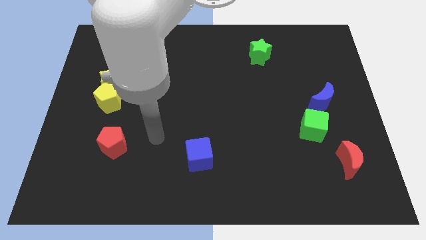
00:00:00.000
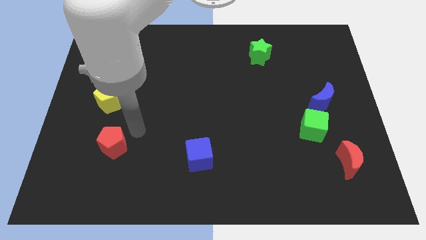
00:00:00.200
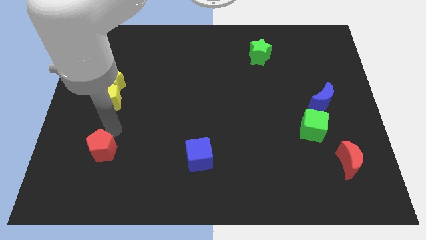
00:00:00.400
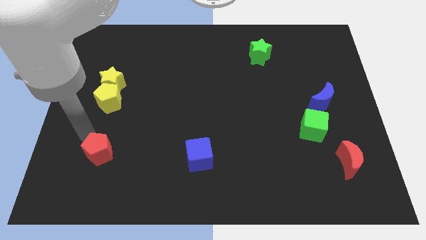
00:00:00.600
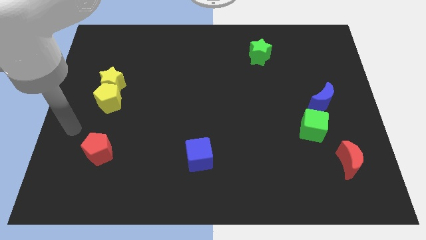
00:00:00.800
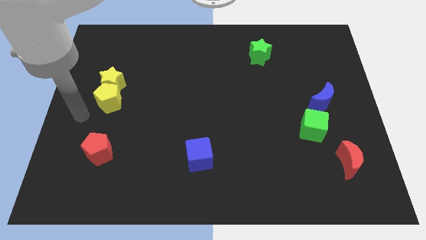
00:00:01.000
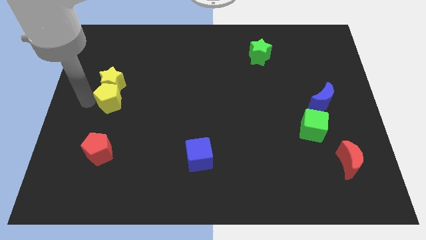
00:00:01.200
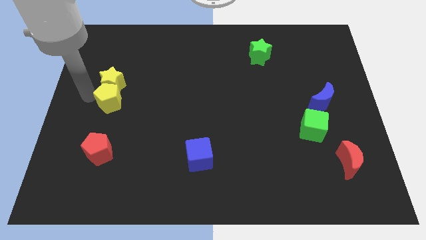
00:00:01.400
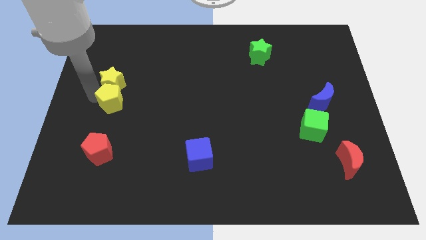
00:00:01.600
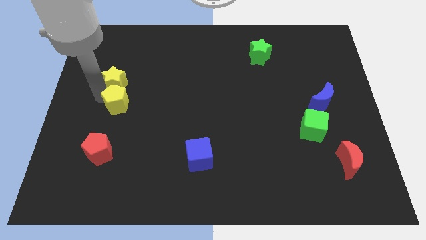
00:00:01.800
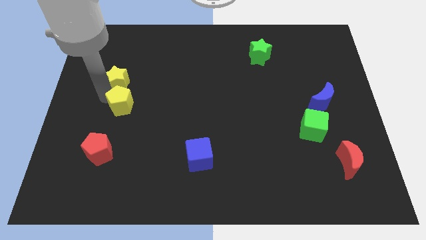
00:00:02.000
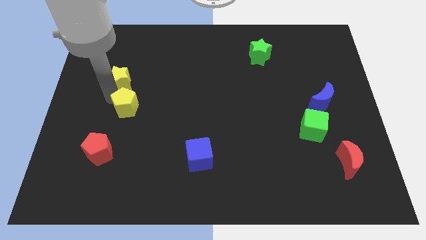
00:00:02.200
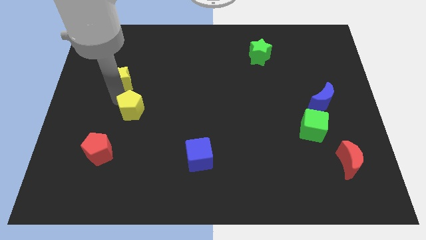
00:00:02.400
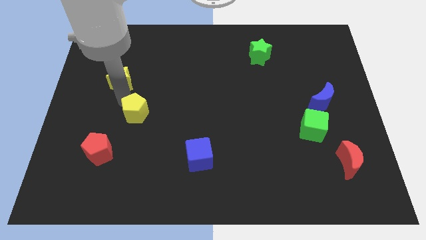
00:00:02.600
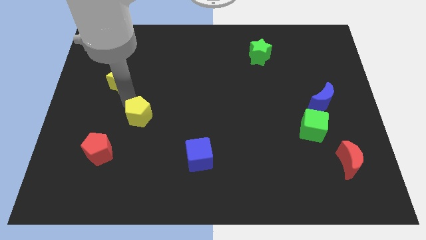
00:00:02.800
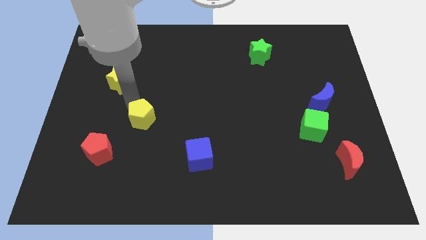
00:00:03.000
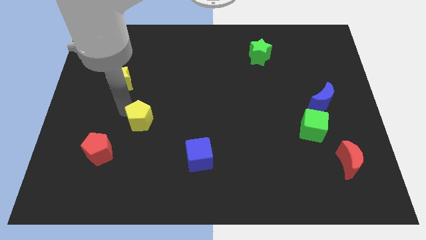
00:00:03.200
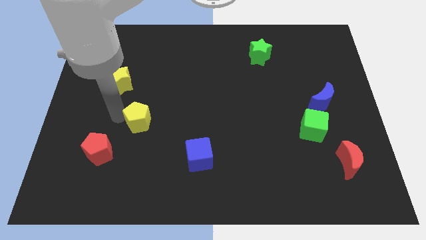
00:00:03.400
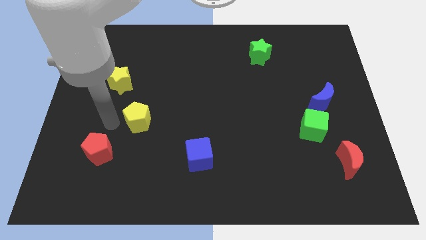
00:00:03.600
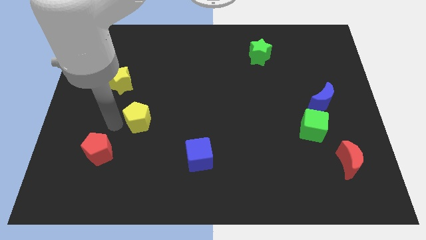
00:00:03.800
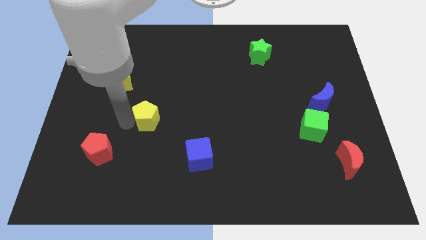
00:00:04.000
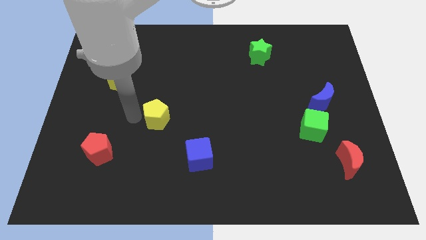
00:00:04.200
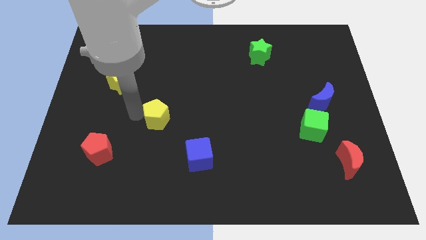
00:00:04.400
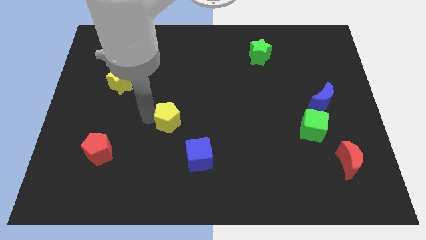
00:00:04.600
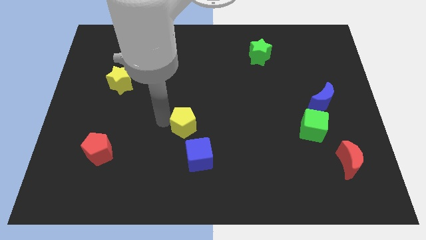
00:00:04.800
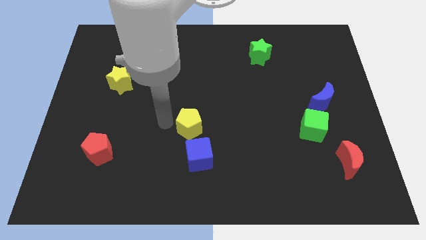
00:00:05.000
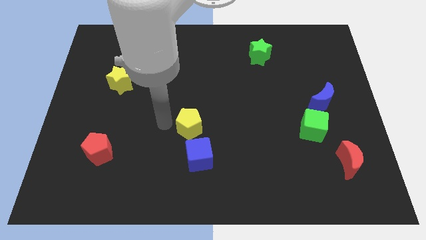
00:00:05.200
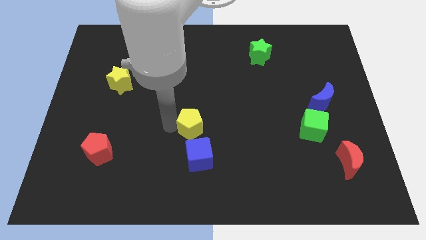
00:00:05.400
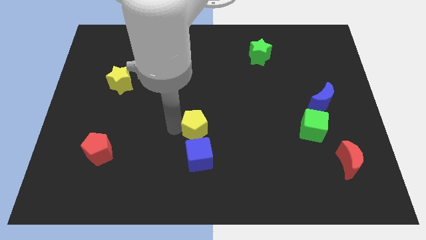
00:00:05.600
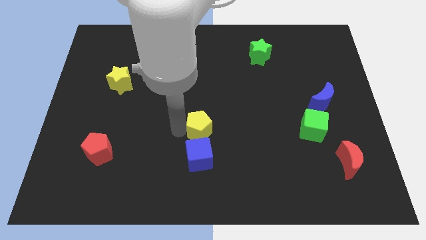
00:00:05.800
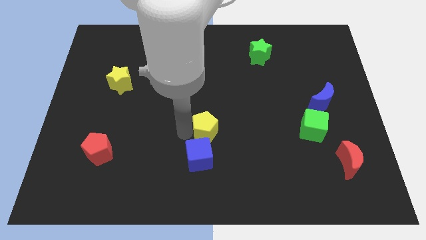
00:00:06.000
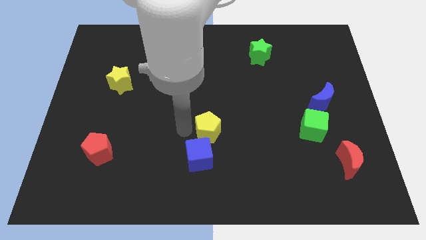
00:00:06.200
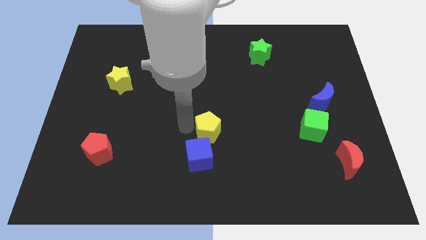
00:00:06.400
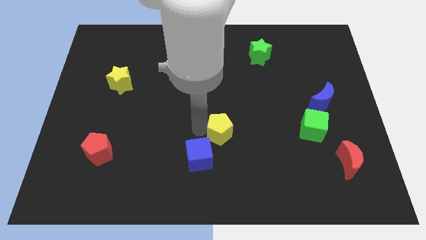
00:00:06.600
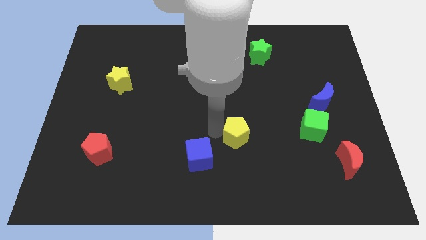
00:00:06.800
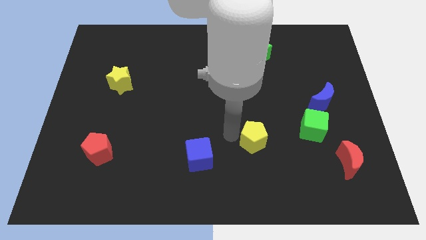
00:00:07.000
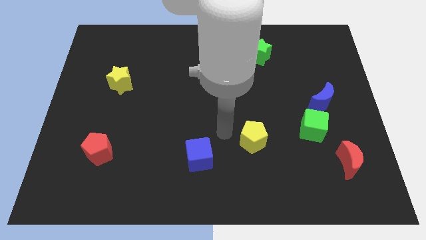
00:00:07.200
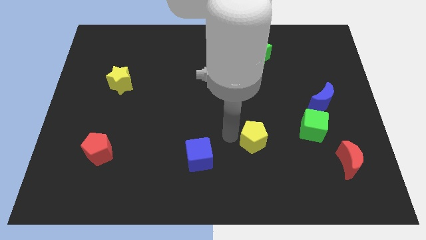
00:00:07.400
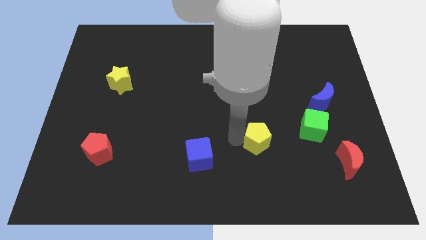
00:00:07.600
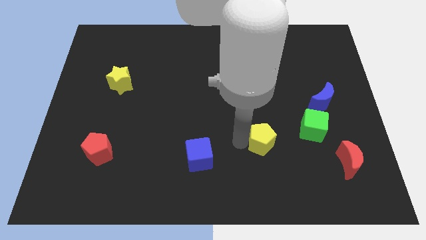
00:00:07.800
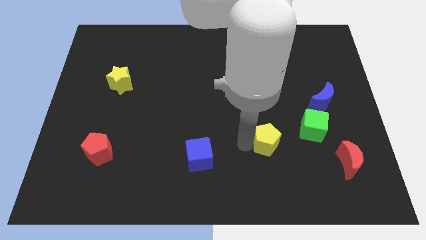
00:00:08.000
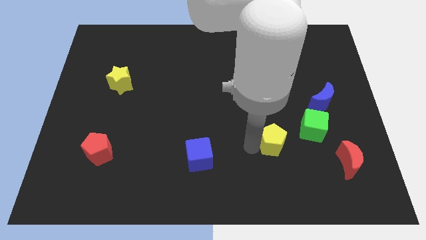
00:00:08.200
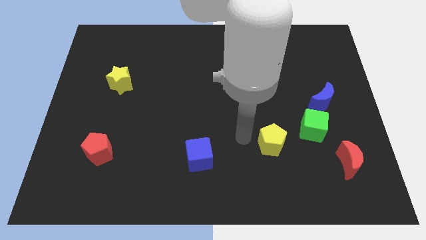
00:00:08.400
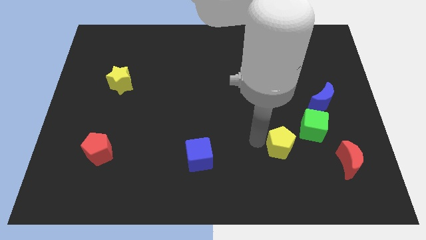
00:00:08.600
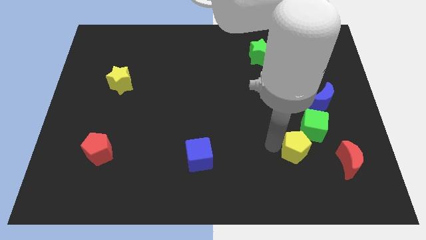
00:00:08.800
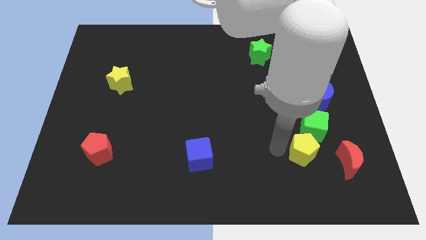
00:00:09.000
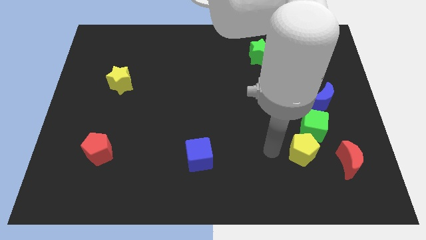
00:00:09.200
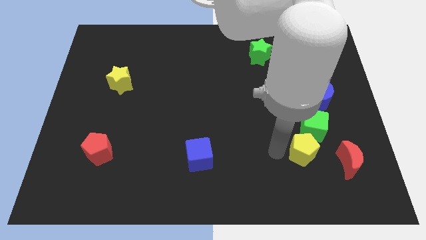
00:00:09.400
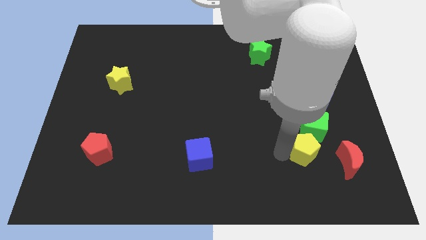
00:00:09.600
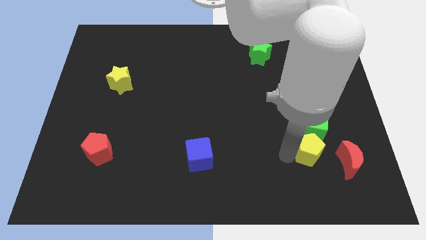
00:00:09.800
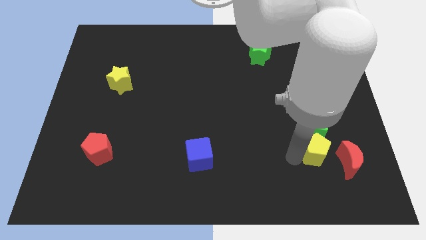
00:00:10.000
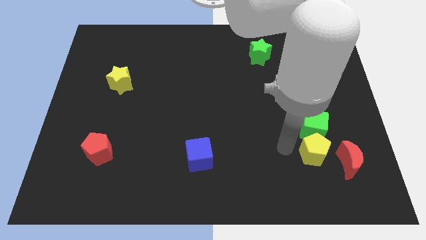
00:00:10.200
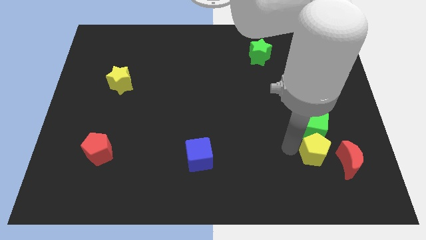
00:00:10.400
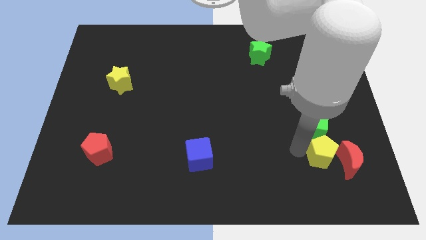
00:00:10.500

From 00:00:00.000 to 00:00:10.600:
put the yellow pentagon next to the red moon

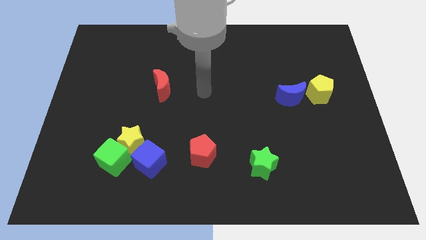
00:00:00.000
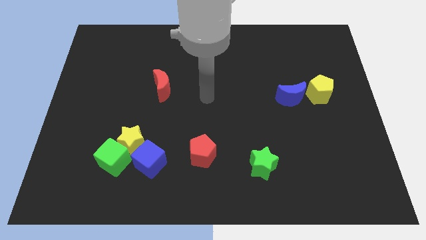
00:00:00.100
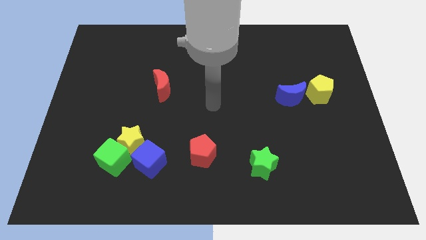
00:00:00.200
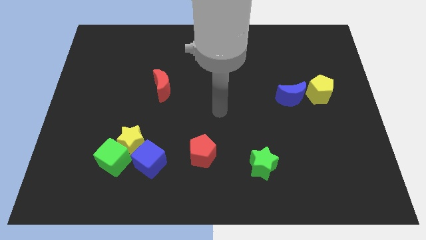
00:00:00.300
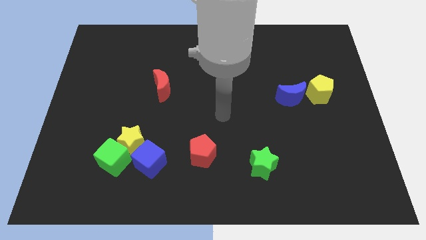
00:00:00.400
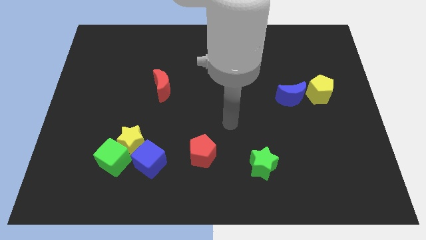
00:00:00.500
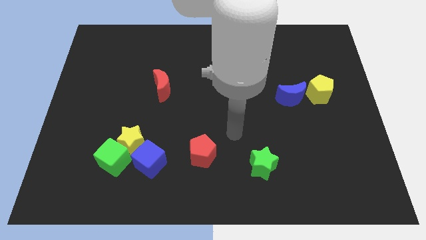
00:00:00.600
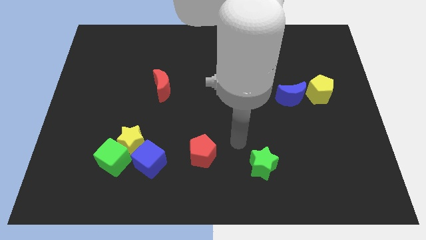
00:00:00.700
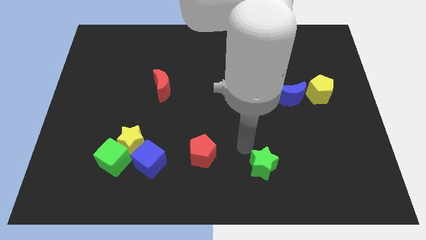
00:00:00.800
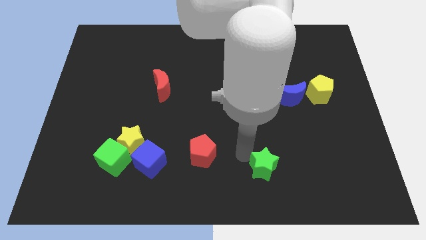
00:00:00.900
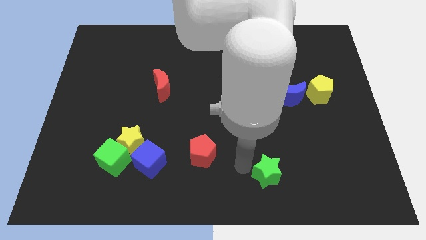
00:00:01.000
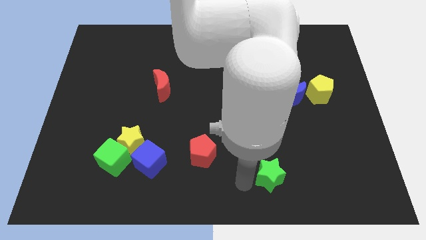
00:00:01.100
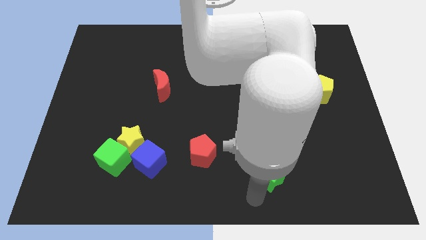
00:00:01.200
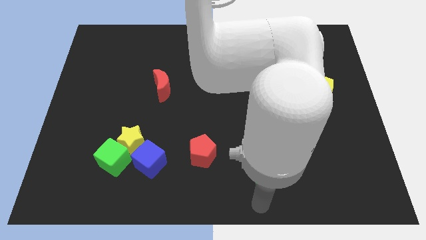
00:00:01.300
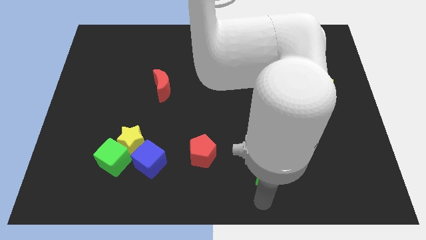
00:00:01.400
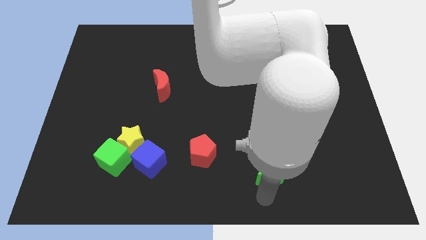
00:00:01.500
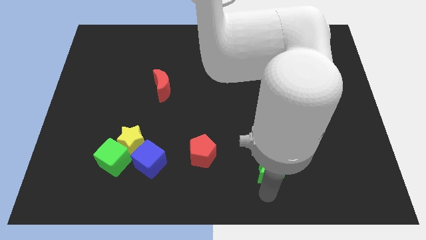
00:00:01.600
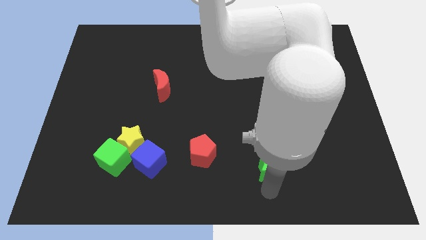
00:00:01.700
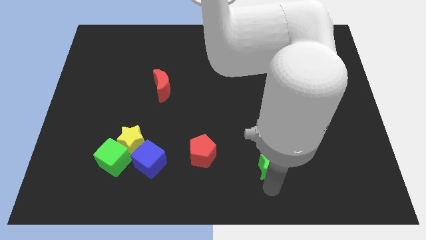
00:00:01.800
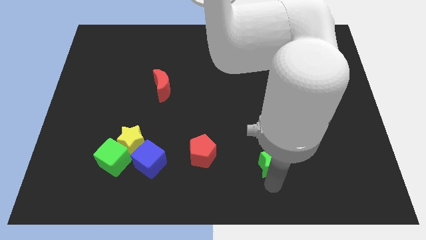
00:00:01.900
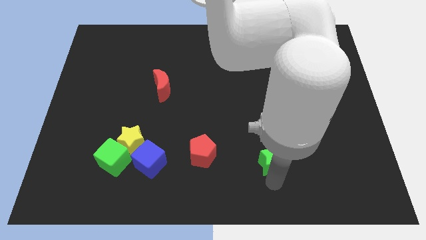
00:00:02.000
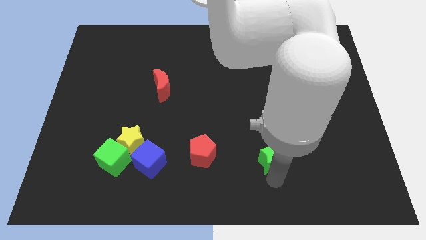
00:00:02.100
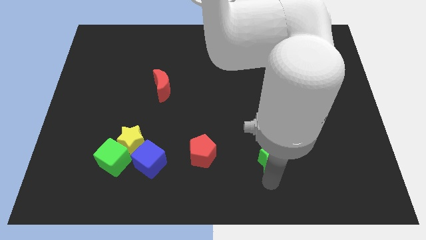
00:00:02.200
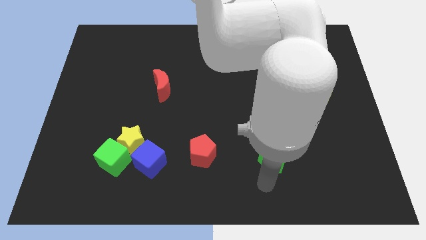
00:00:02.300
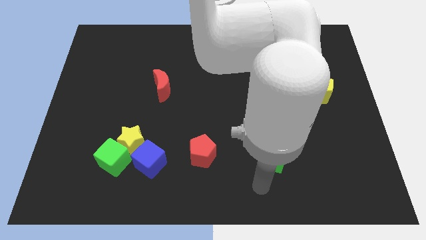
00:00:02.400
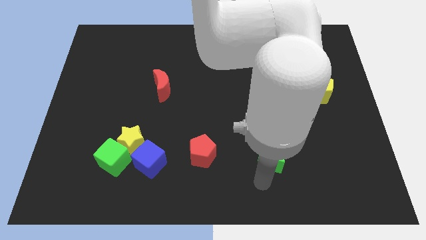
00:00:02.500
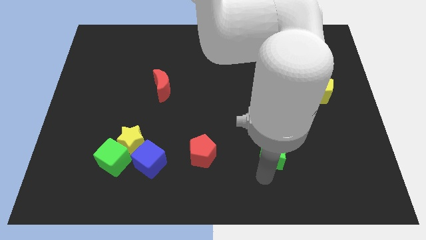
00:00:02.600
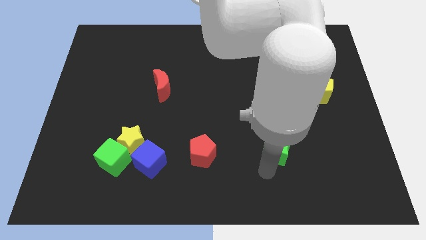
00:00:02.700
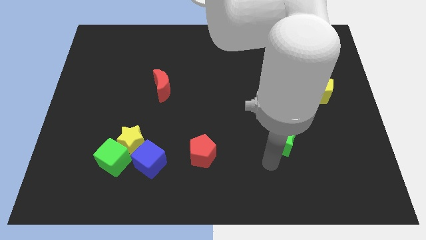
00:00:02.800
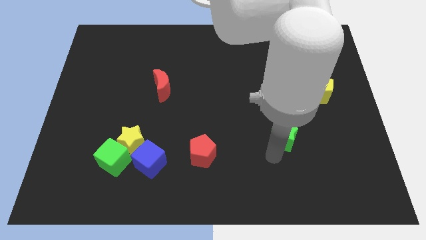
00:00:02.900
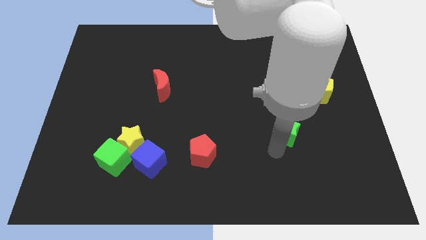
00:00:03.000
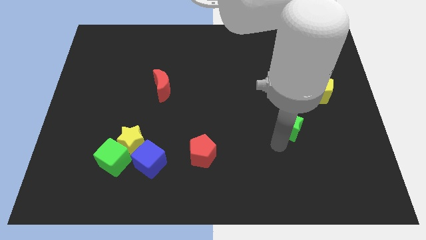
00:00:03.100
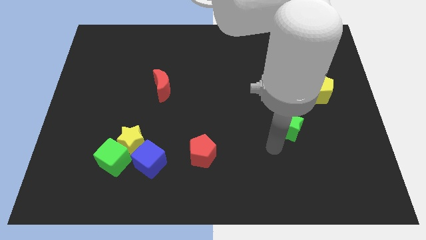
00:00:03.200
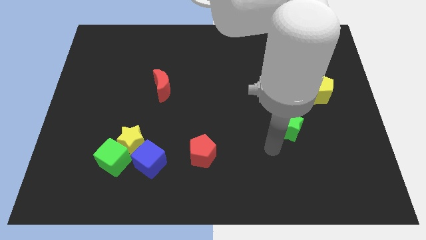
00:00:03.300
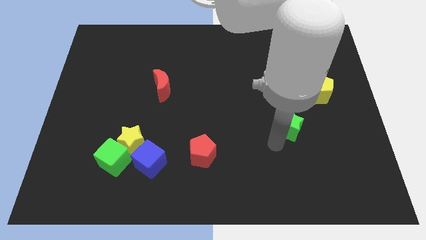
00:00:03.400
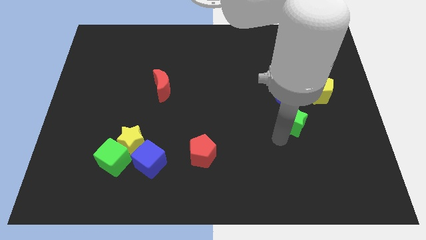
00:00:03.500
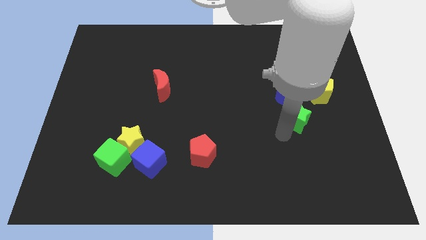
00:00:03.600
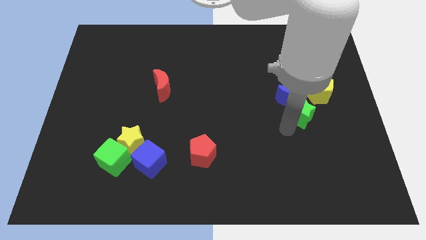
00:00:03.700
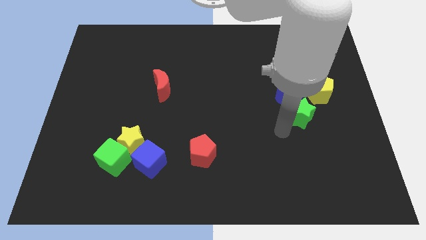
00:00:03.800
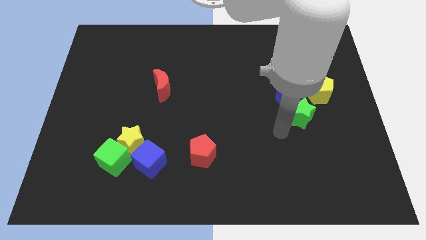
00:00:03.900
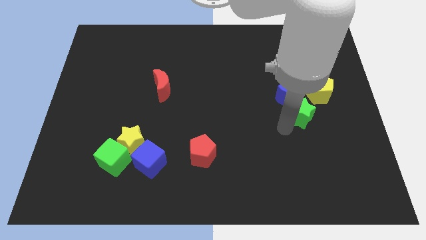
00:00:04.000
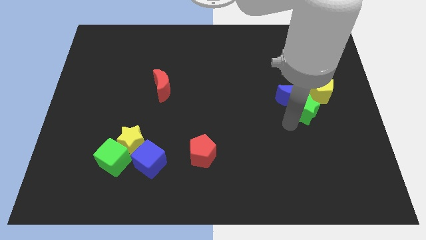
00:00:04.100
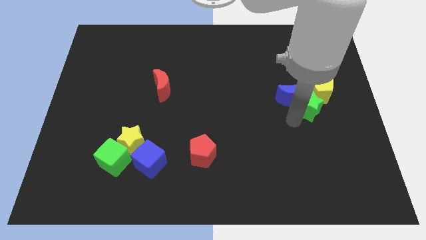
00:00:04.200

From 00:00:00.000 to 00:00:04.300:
move the green star close to the yellow pentagon
